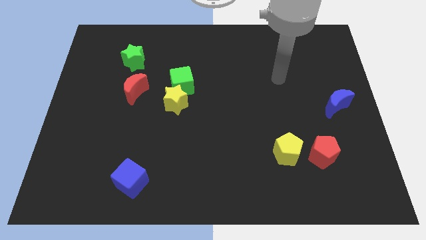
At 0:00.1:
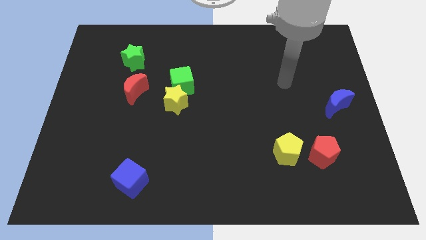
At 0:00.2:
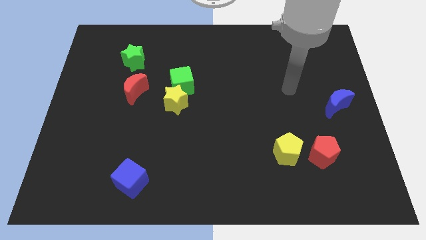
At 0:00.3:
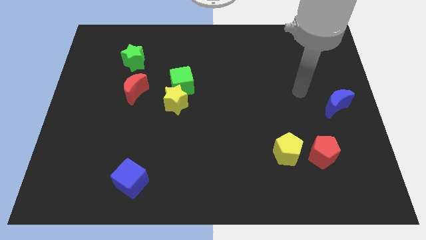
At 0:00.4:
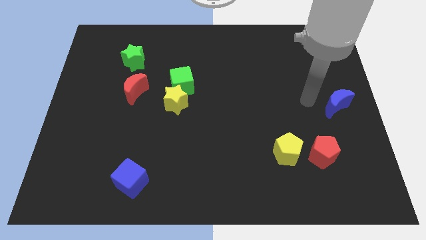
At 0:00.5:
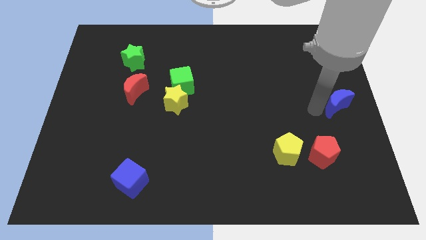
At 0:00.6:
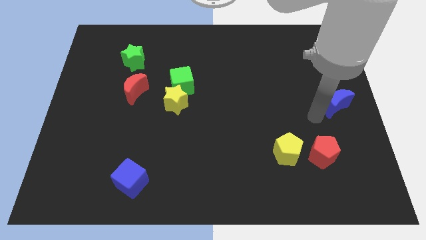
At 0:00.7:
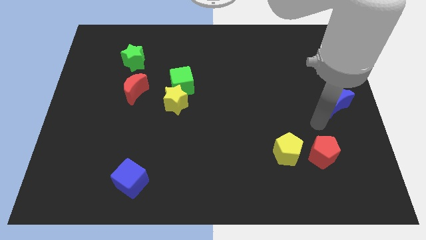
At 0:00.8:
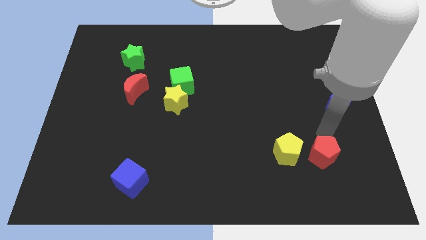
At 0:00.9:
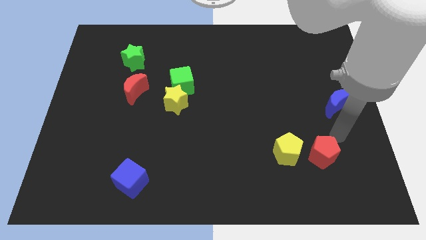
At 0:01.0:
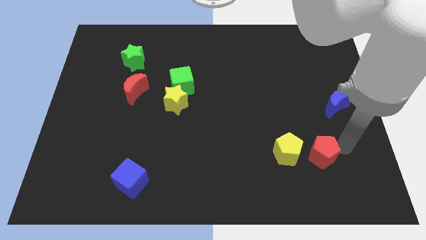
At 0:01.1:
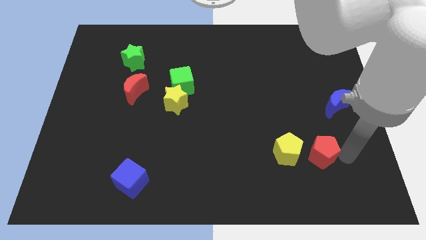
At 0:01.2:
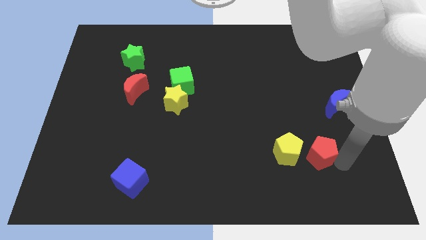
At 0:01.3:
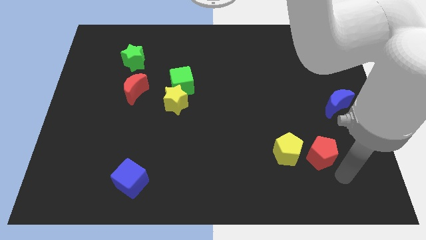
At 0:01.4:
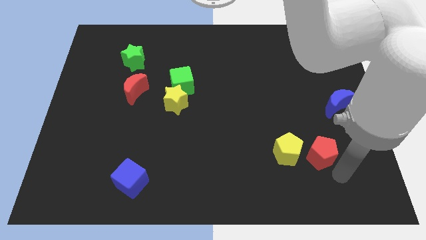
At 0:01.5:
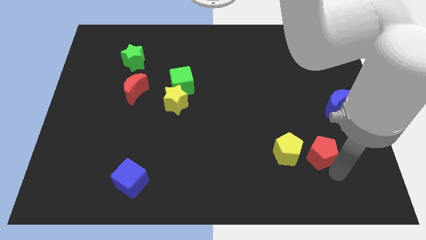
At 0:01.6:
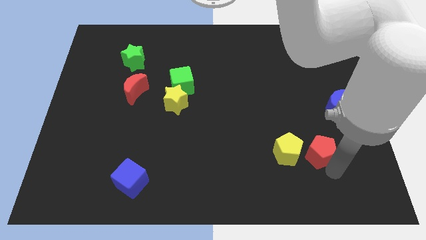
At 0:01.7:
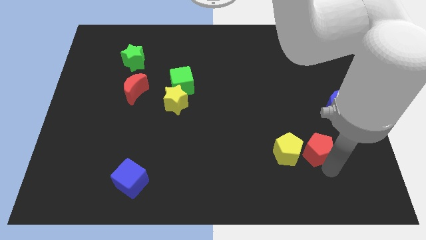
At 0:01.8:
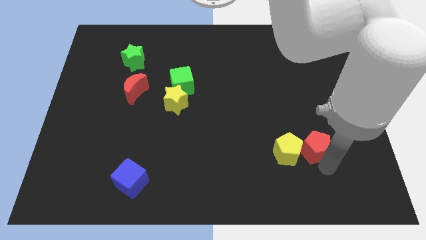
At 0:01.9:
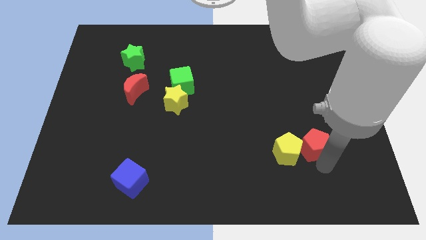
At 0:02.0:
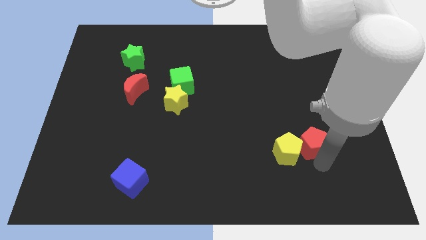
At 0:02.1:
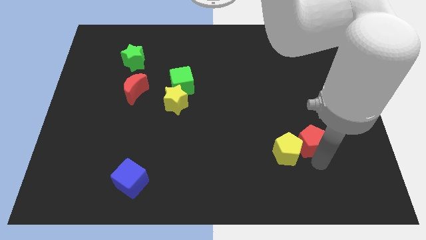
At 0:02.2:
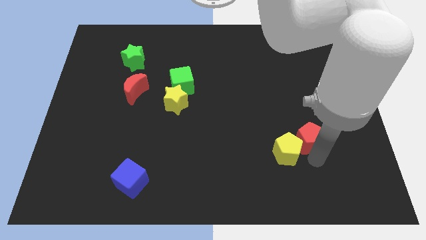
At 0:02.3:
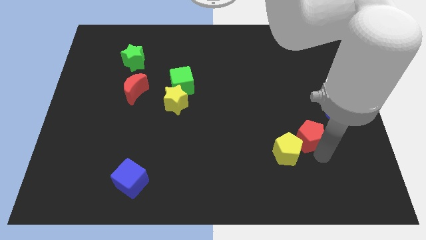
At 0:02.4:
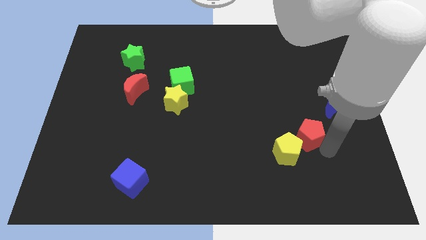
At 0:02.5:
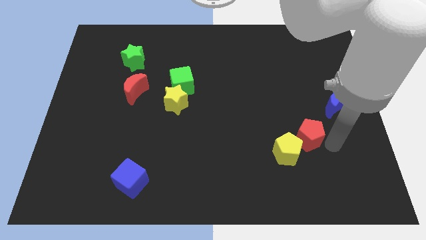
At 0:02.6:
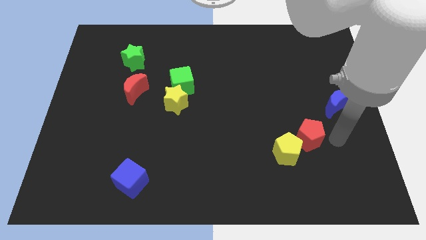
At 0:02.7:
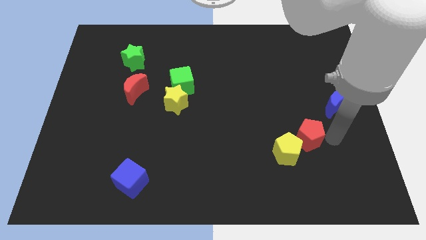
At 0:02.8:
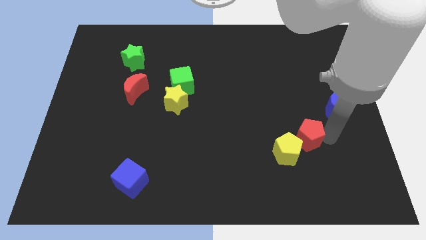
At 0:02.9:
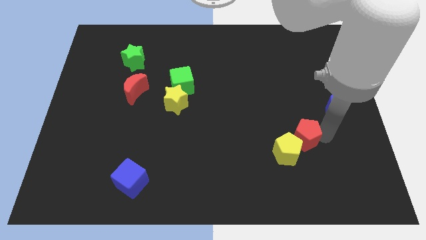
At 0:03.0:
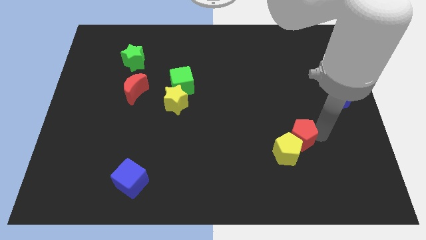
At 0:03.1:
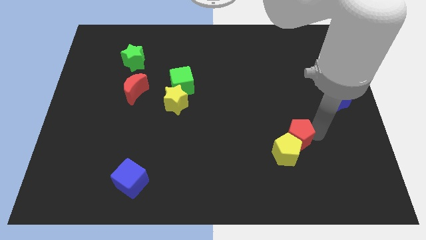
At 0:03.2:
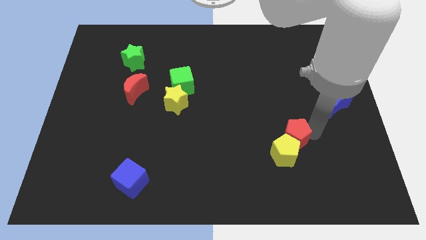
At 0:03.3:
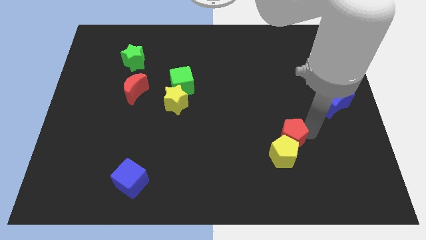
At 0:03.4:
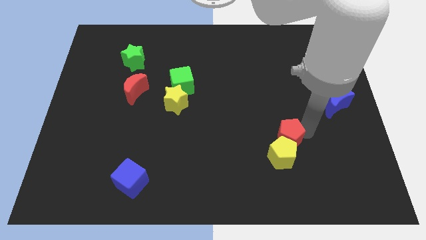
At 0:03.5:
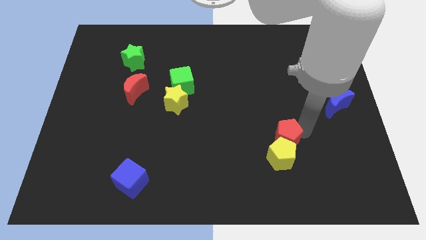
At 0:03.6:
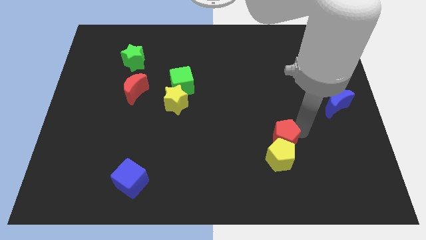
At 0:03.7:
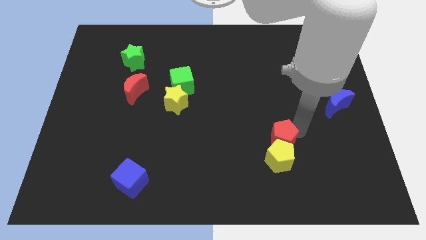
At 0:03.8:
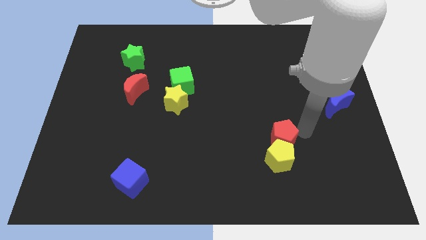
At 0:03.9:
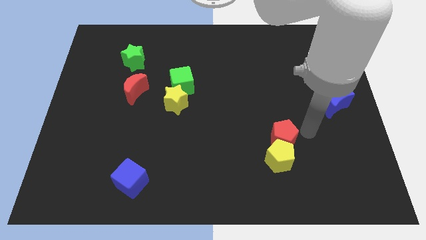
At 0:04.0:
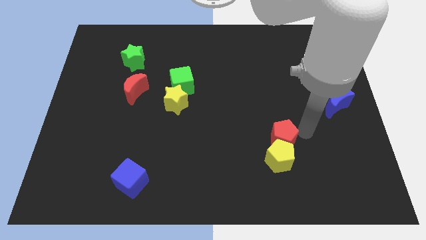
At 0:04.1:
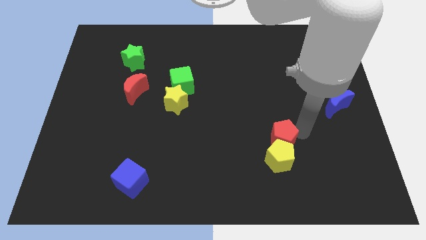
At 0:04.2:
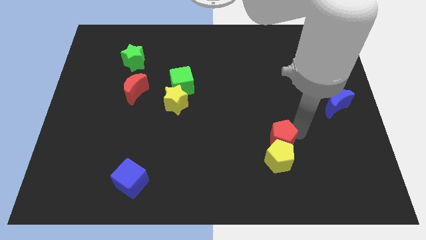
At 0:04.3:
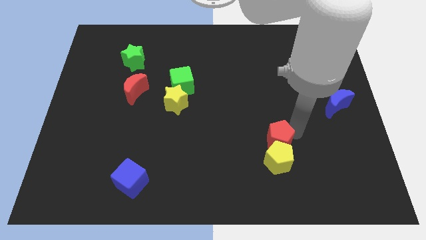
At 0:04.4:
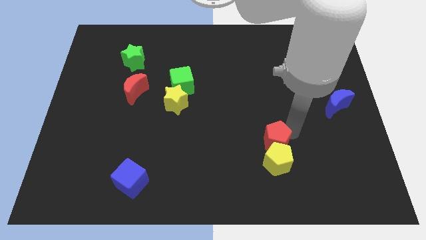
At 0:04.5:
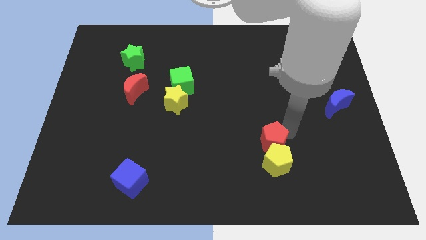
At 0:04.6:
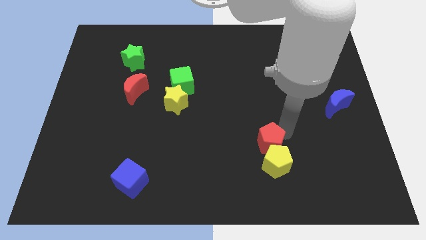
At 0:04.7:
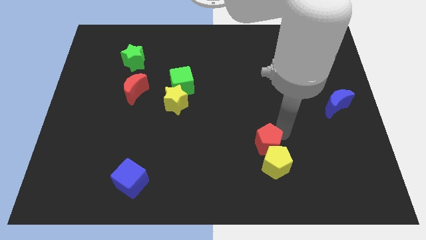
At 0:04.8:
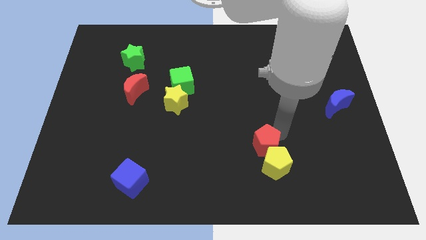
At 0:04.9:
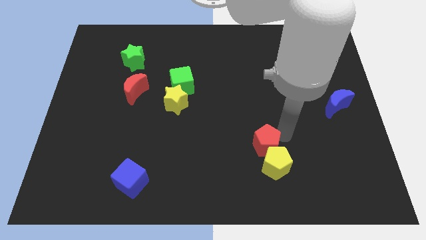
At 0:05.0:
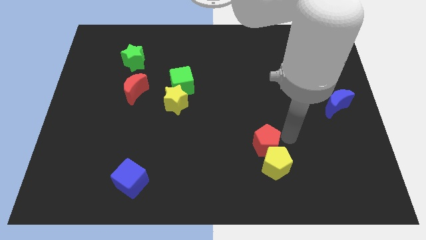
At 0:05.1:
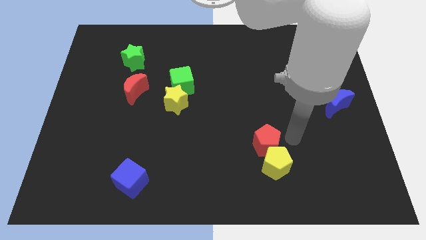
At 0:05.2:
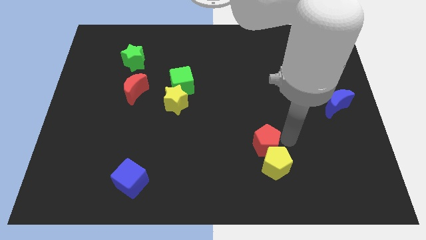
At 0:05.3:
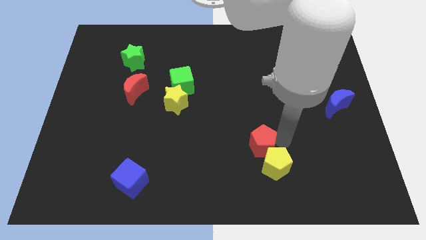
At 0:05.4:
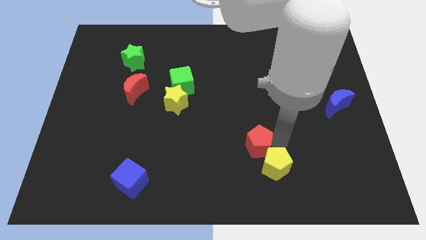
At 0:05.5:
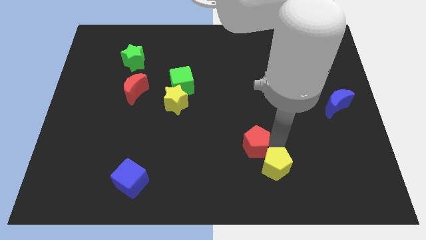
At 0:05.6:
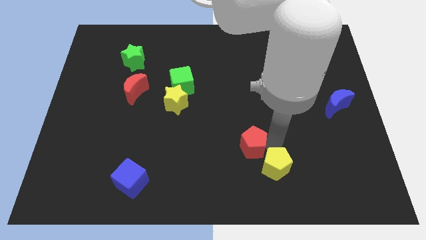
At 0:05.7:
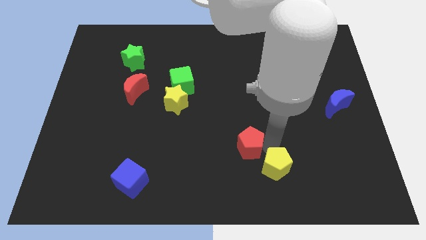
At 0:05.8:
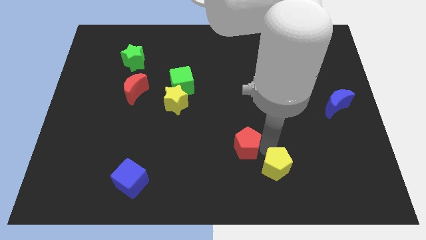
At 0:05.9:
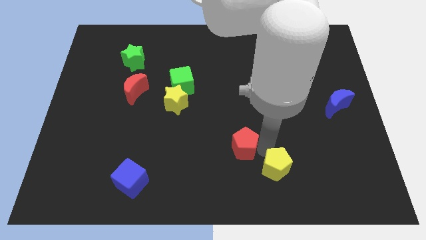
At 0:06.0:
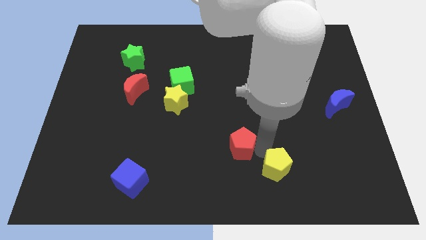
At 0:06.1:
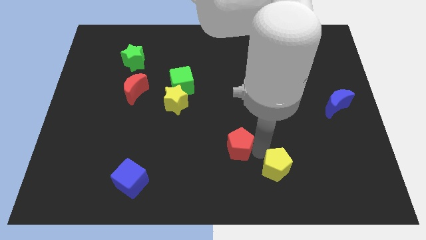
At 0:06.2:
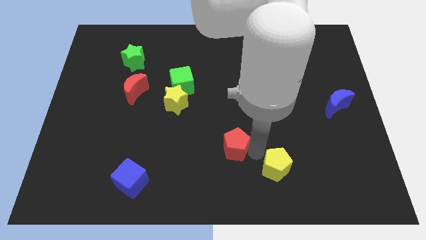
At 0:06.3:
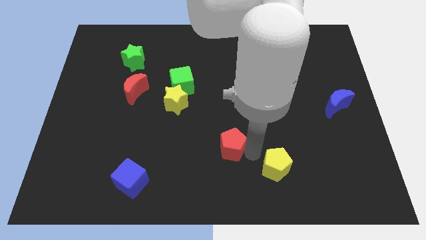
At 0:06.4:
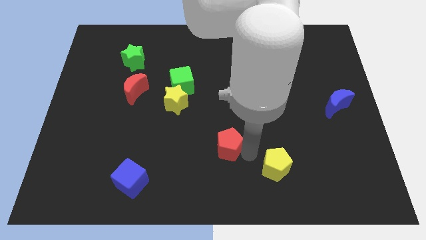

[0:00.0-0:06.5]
push the red pentagon to the left

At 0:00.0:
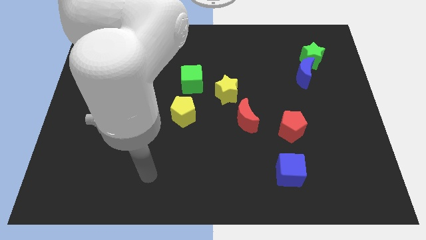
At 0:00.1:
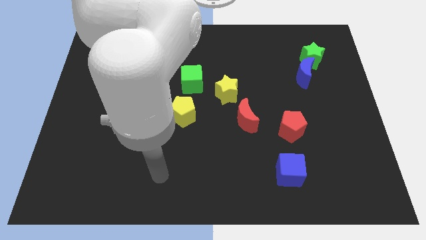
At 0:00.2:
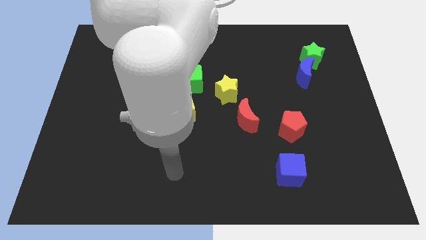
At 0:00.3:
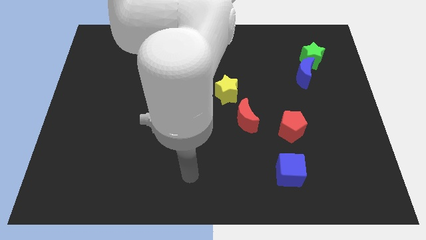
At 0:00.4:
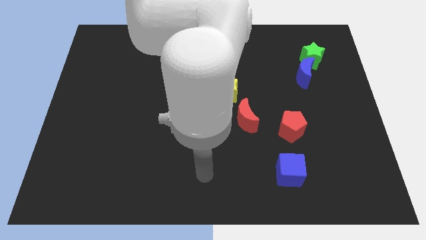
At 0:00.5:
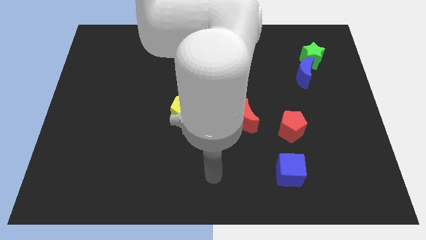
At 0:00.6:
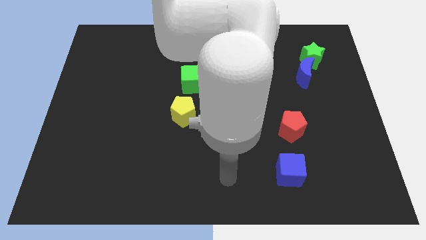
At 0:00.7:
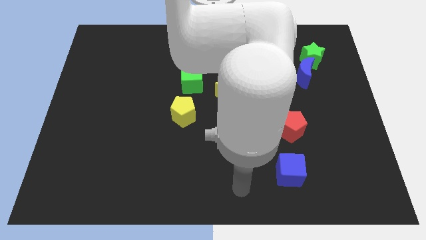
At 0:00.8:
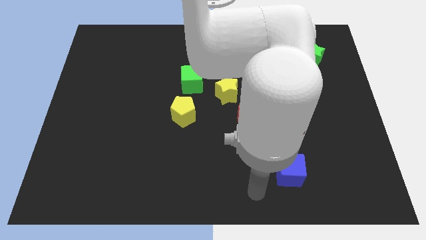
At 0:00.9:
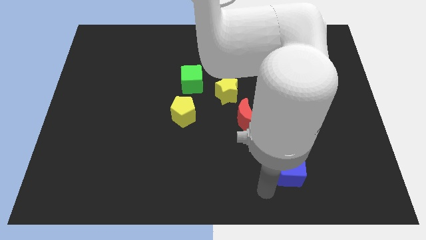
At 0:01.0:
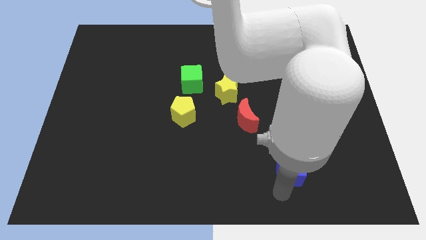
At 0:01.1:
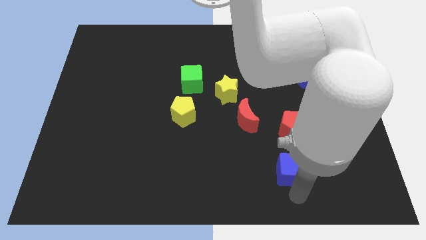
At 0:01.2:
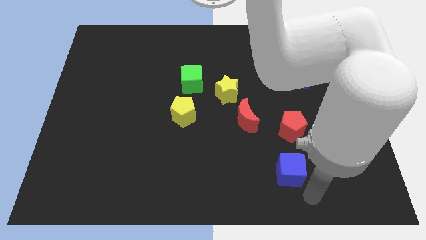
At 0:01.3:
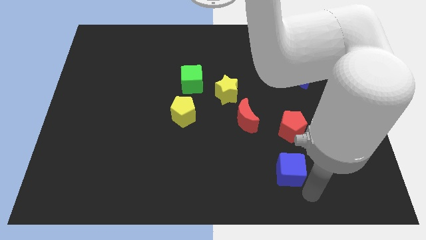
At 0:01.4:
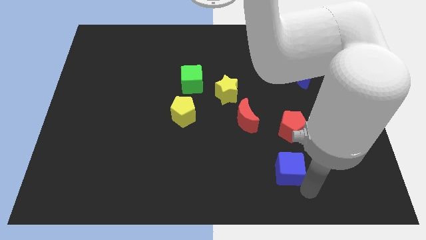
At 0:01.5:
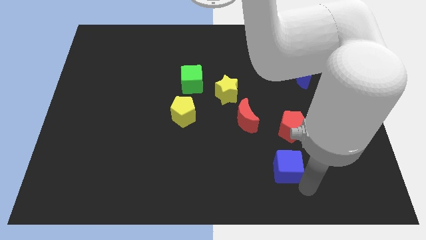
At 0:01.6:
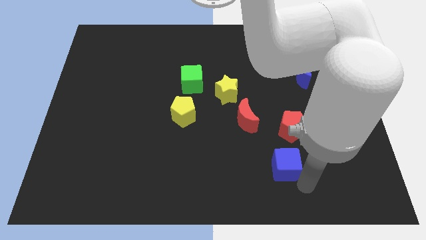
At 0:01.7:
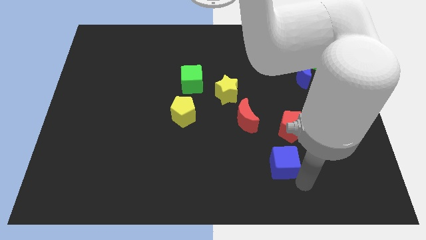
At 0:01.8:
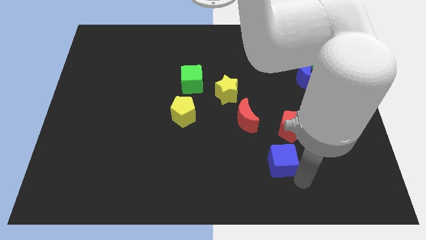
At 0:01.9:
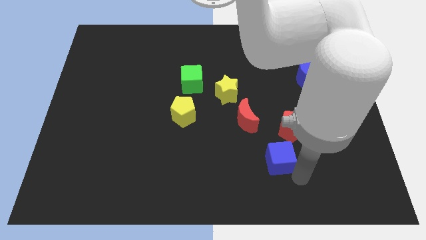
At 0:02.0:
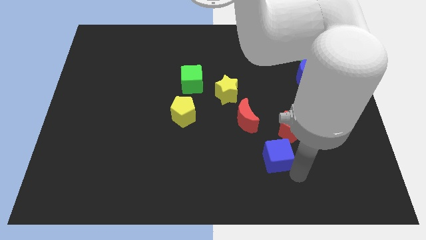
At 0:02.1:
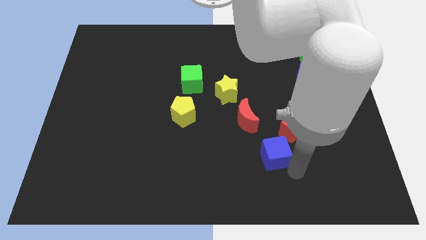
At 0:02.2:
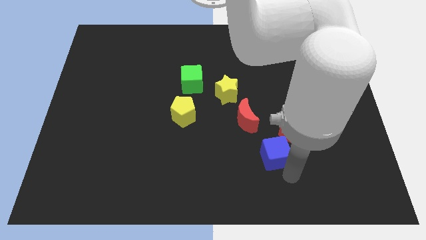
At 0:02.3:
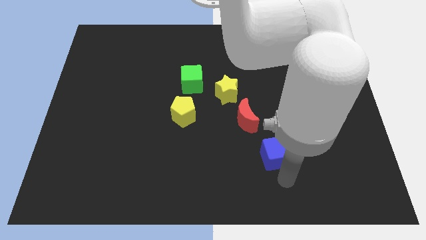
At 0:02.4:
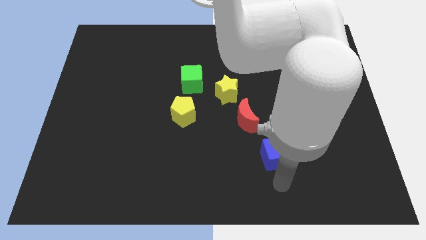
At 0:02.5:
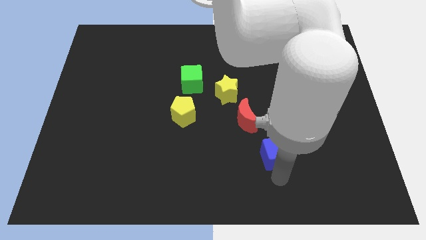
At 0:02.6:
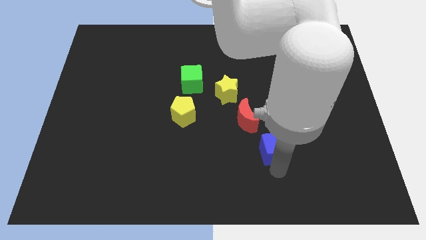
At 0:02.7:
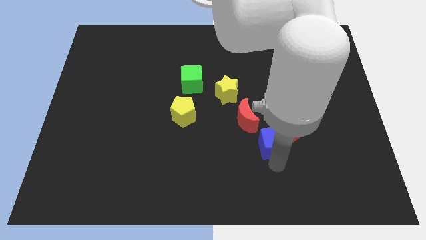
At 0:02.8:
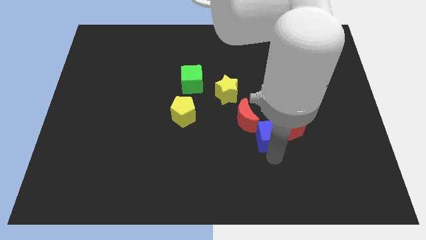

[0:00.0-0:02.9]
push the blue cube up somewhat
